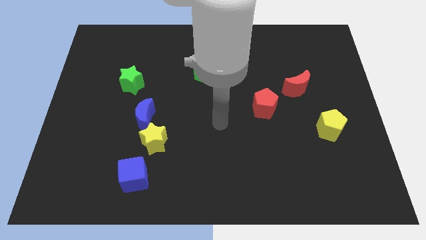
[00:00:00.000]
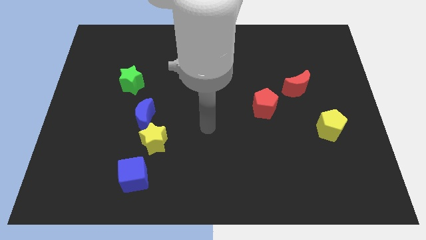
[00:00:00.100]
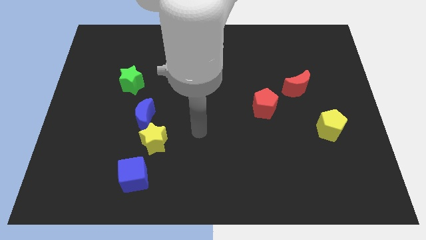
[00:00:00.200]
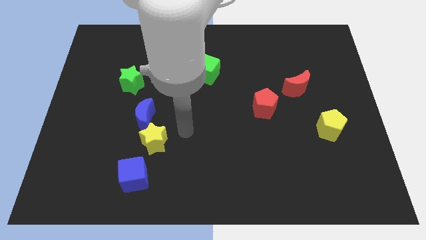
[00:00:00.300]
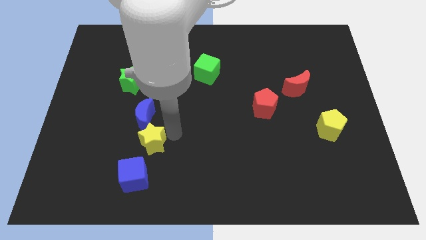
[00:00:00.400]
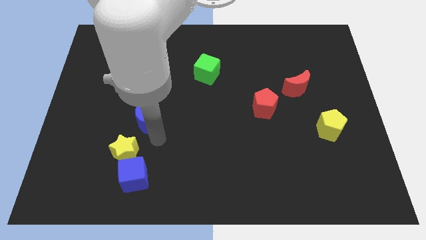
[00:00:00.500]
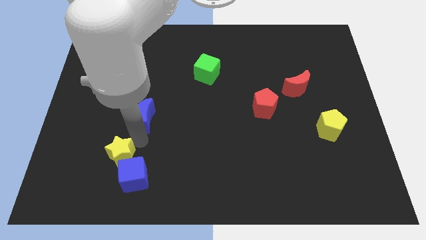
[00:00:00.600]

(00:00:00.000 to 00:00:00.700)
separate the blue moon from the yellow star

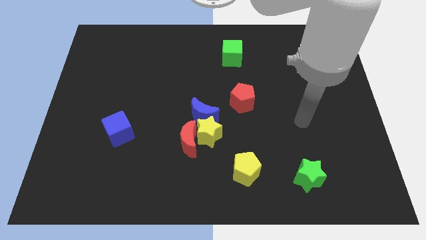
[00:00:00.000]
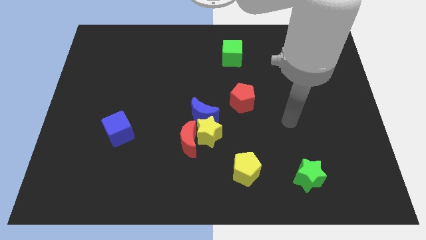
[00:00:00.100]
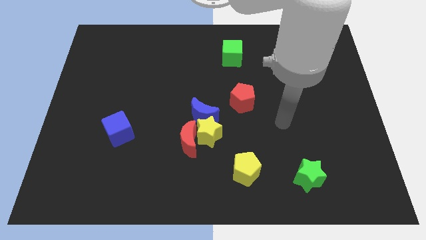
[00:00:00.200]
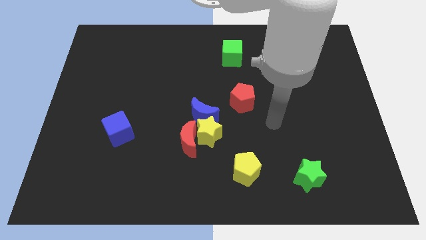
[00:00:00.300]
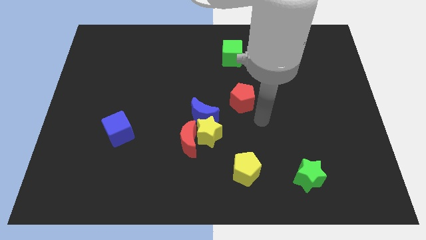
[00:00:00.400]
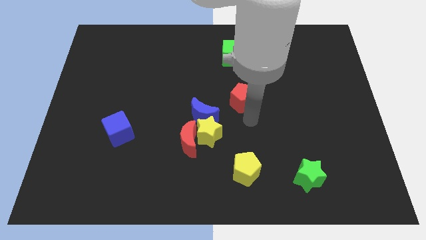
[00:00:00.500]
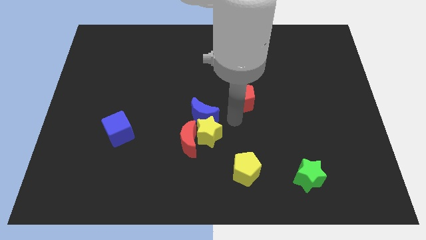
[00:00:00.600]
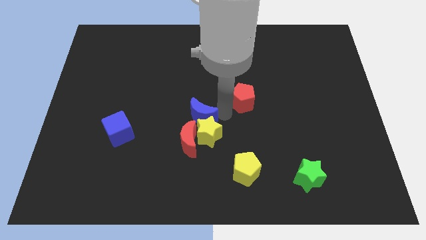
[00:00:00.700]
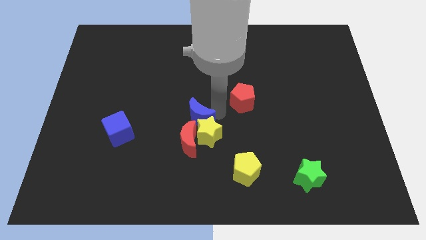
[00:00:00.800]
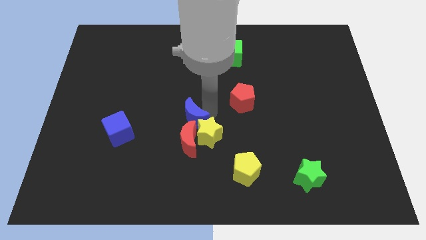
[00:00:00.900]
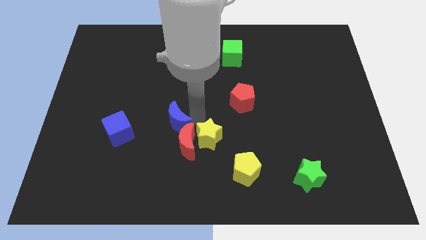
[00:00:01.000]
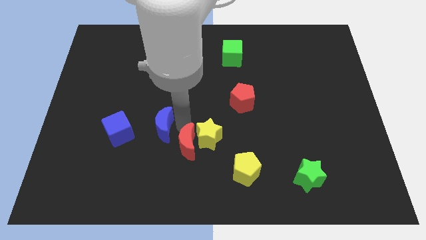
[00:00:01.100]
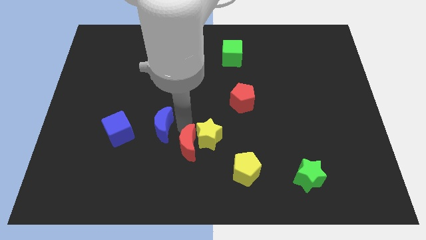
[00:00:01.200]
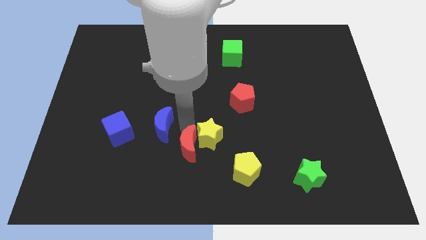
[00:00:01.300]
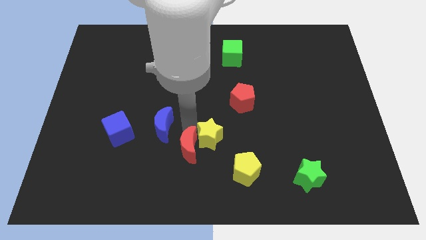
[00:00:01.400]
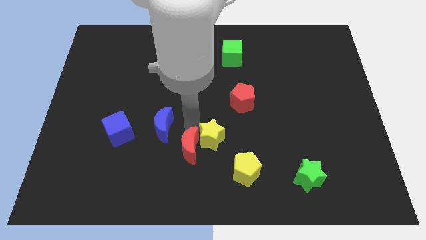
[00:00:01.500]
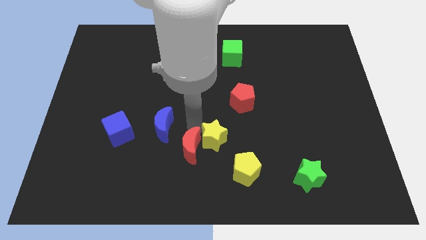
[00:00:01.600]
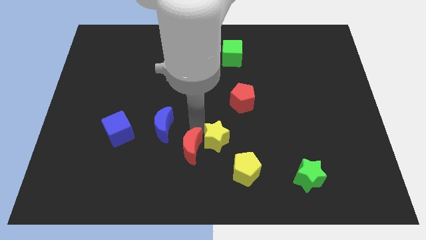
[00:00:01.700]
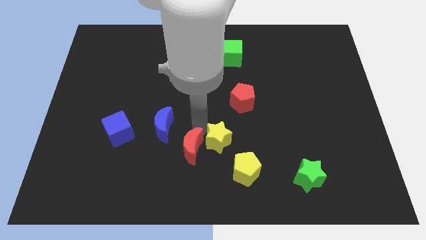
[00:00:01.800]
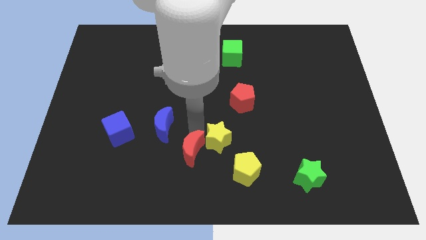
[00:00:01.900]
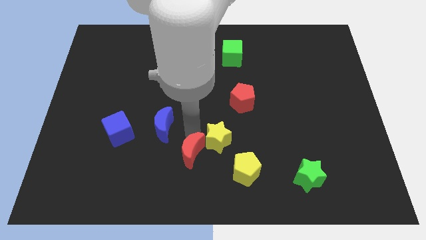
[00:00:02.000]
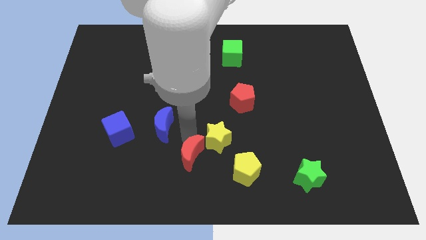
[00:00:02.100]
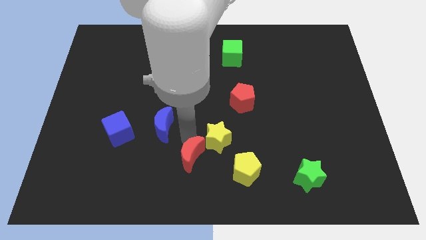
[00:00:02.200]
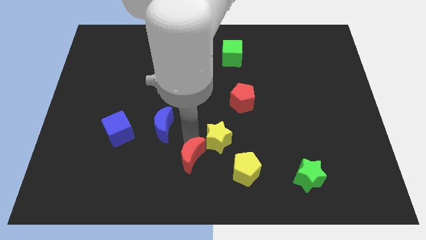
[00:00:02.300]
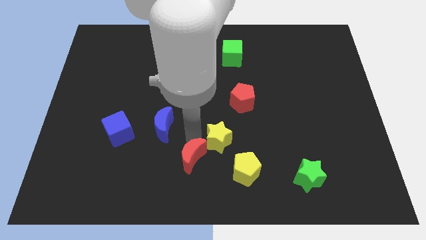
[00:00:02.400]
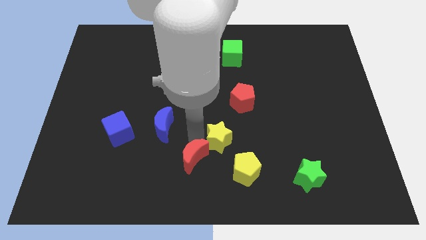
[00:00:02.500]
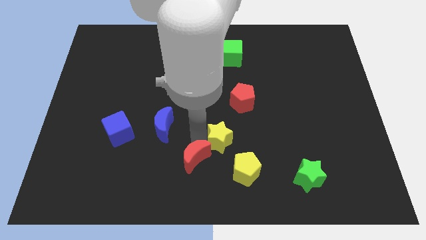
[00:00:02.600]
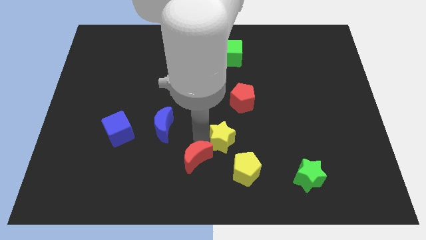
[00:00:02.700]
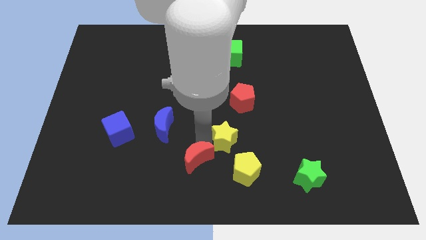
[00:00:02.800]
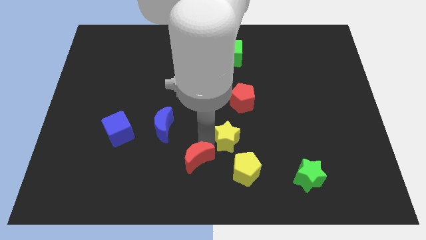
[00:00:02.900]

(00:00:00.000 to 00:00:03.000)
separate the yellow star from the red moon and blue moon

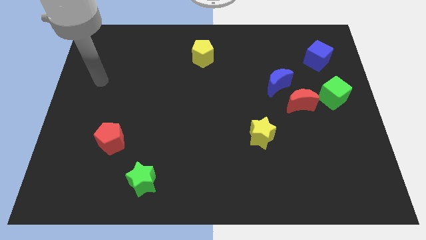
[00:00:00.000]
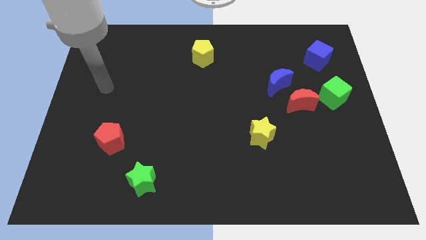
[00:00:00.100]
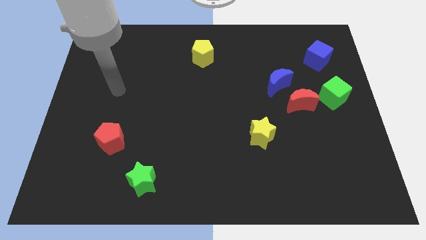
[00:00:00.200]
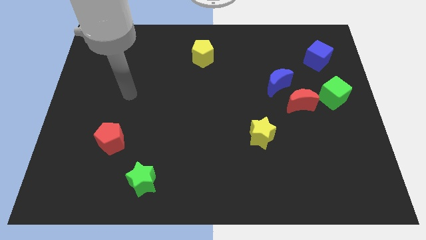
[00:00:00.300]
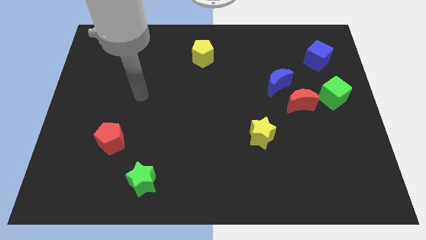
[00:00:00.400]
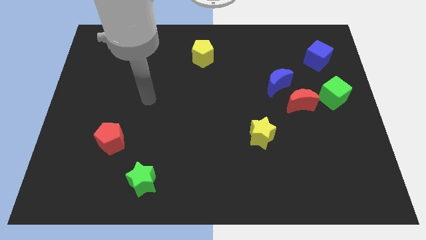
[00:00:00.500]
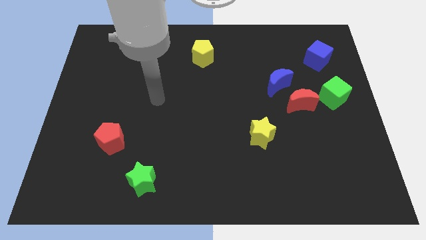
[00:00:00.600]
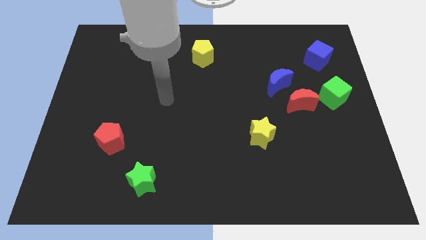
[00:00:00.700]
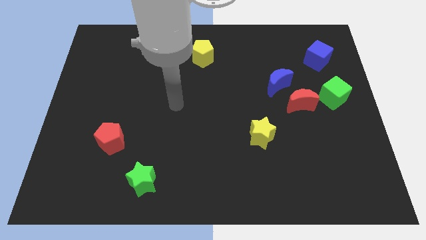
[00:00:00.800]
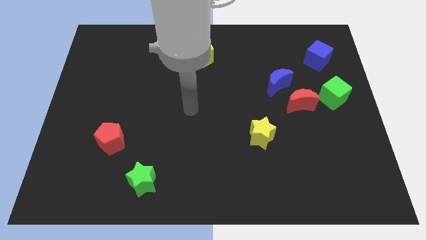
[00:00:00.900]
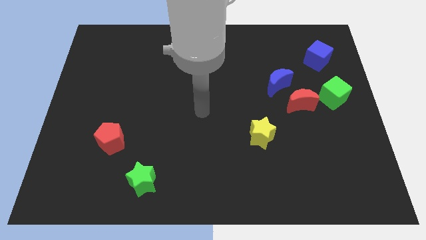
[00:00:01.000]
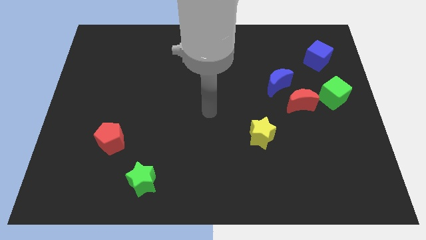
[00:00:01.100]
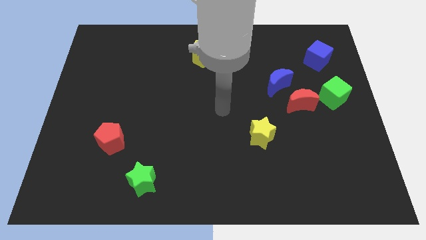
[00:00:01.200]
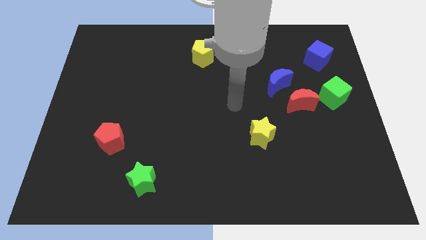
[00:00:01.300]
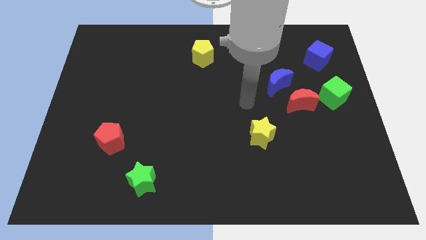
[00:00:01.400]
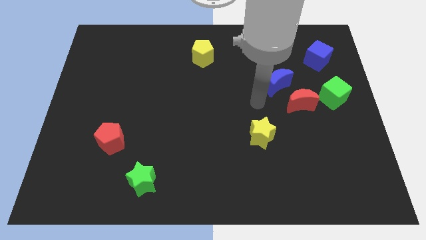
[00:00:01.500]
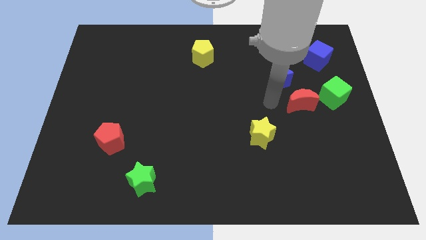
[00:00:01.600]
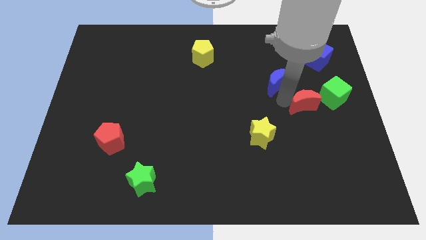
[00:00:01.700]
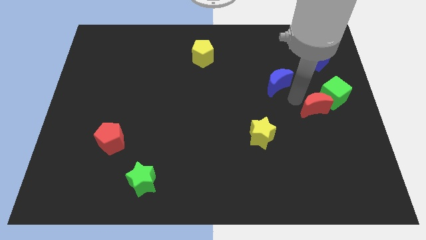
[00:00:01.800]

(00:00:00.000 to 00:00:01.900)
move the blue moon away from the red moon

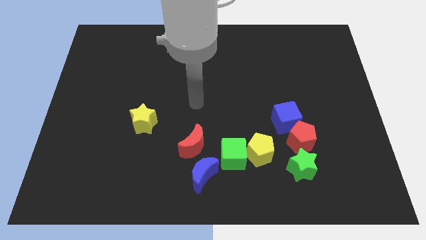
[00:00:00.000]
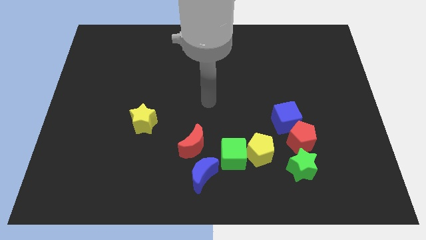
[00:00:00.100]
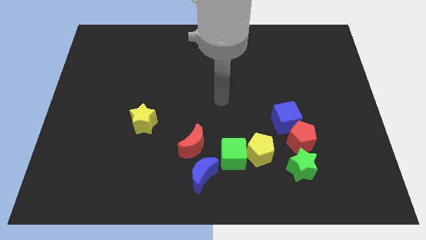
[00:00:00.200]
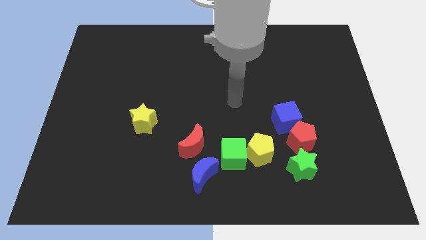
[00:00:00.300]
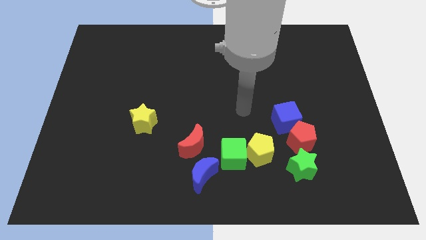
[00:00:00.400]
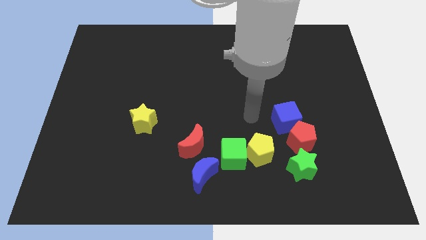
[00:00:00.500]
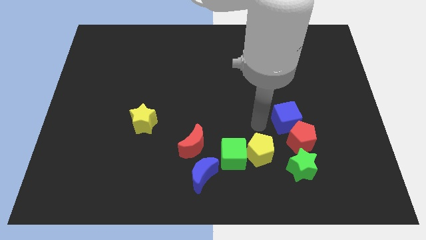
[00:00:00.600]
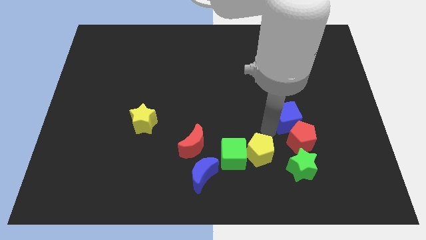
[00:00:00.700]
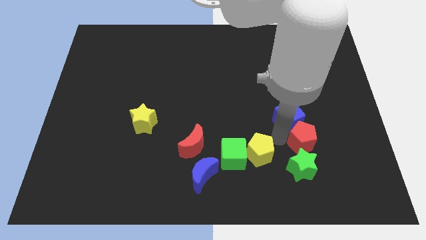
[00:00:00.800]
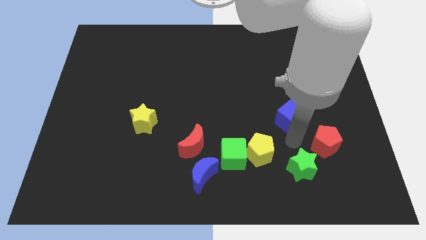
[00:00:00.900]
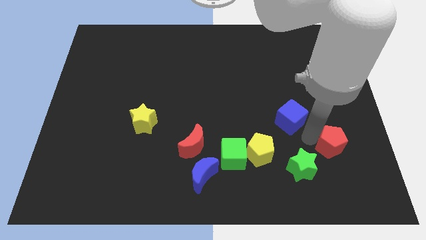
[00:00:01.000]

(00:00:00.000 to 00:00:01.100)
separate the blue cube from the red pentagon

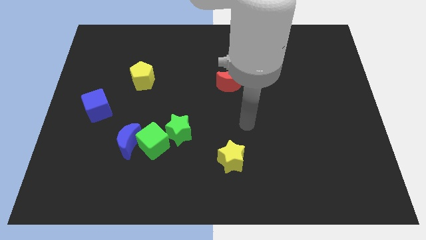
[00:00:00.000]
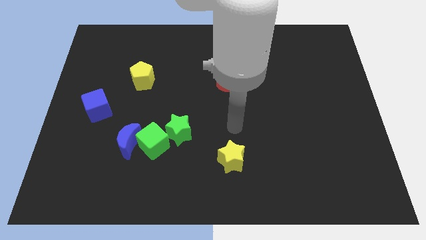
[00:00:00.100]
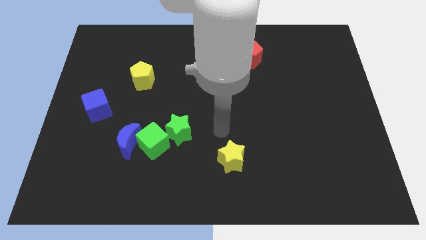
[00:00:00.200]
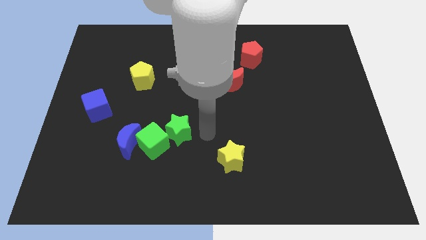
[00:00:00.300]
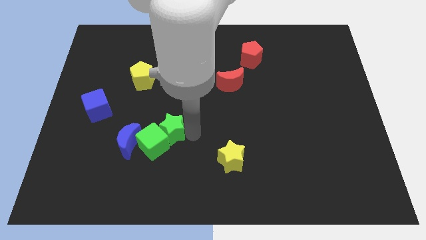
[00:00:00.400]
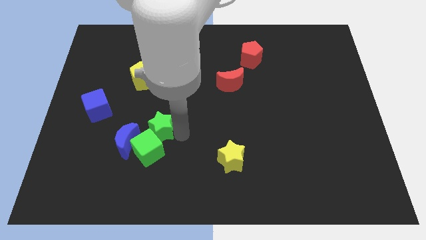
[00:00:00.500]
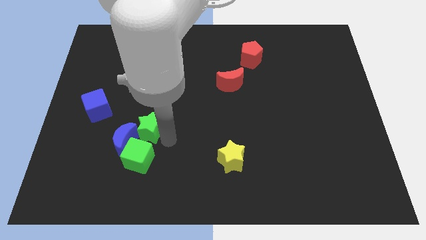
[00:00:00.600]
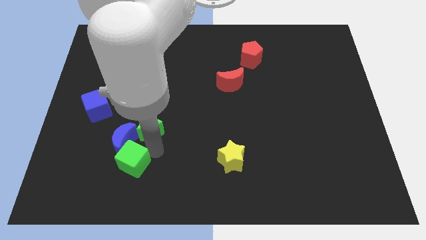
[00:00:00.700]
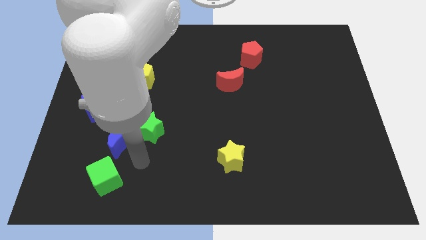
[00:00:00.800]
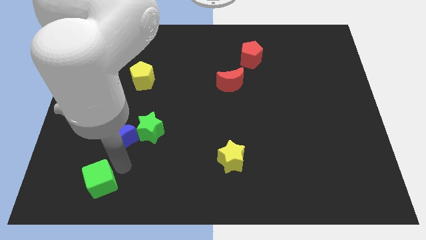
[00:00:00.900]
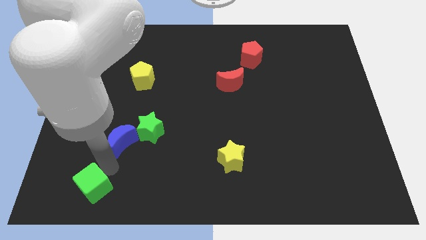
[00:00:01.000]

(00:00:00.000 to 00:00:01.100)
separate the blue moon from the green cube

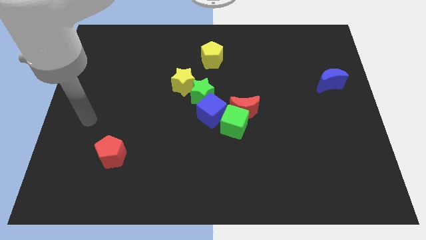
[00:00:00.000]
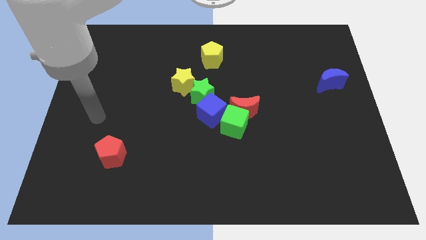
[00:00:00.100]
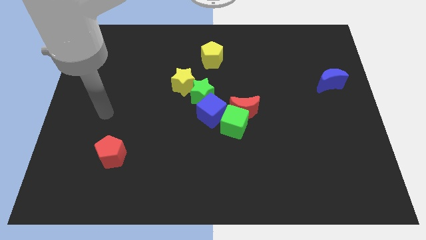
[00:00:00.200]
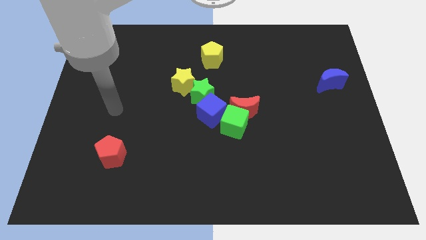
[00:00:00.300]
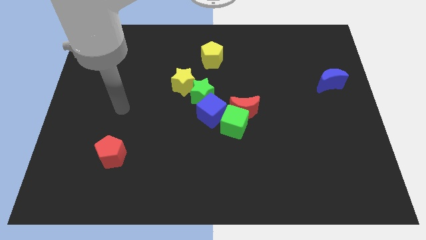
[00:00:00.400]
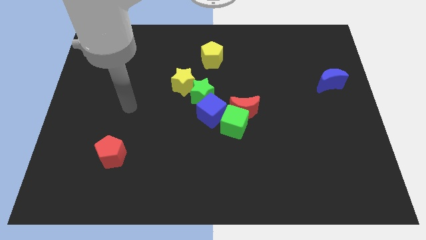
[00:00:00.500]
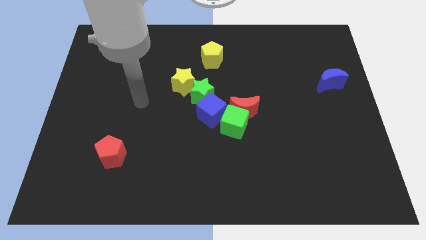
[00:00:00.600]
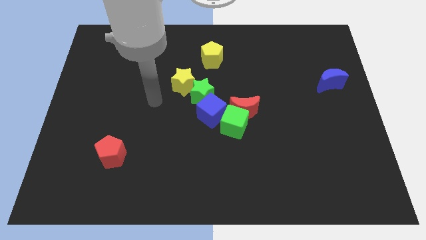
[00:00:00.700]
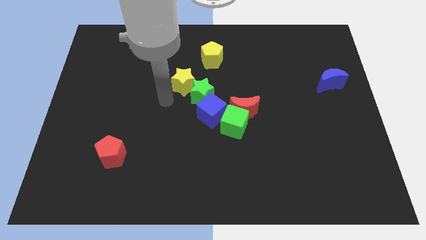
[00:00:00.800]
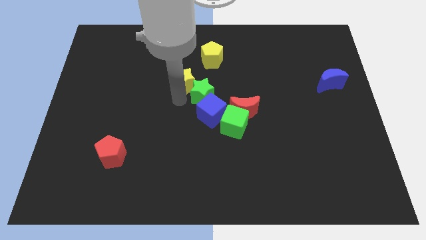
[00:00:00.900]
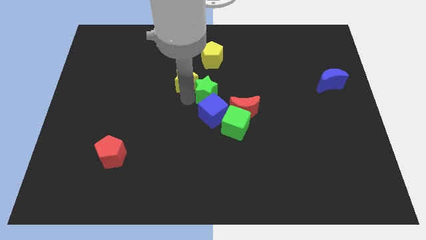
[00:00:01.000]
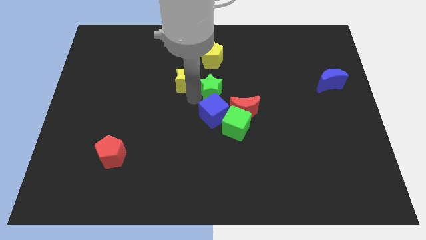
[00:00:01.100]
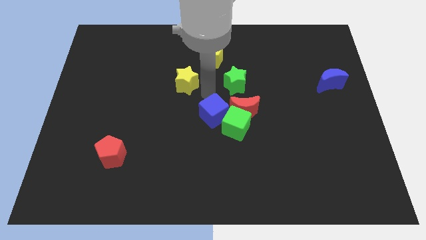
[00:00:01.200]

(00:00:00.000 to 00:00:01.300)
separate the yellow star from the green star
